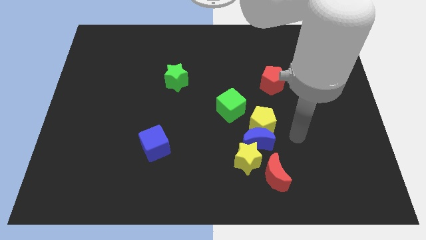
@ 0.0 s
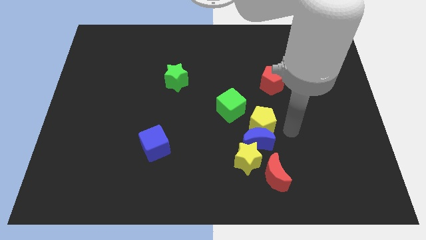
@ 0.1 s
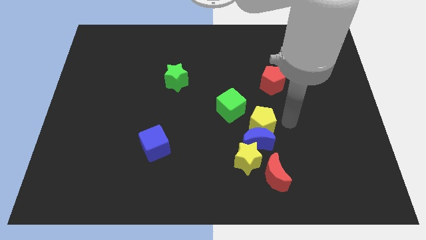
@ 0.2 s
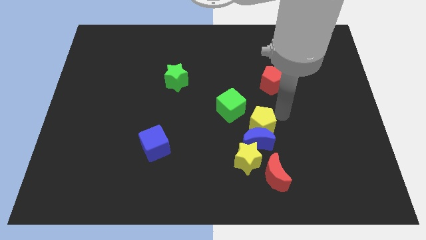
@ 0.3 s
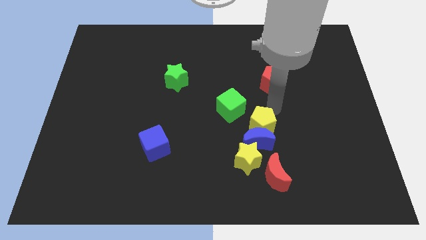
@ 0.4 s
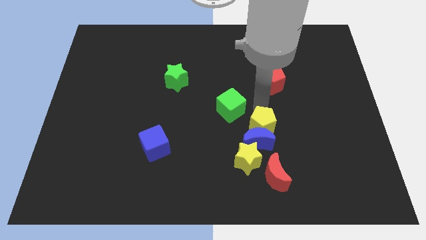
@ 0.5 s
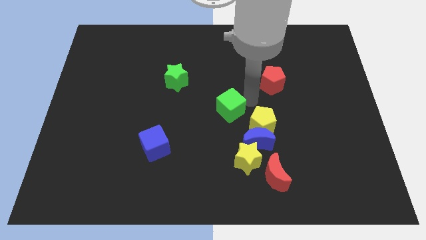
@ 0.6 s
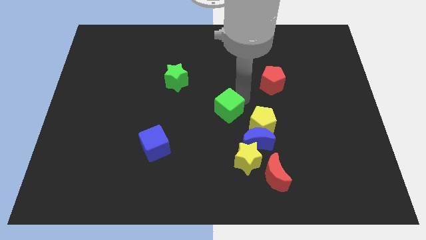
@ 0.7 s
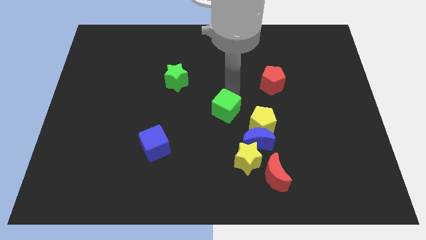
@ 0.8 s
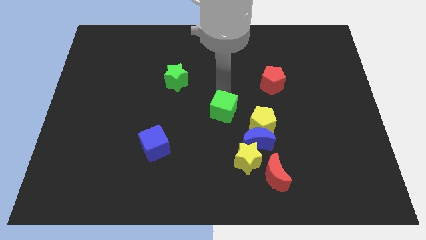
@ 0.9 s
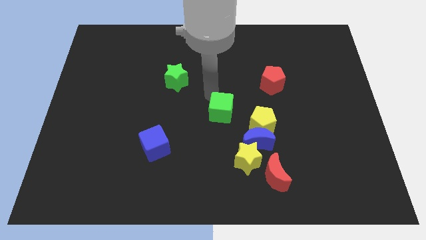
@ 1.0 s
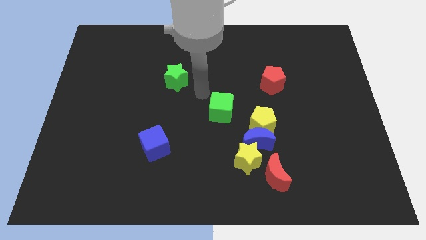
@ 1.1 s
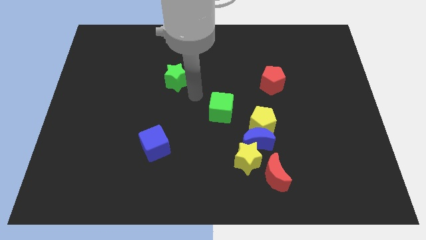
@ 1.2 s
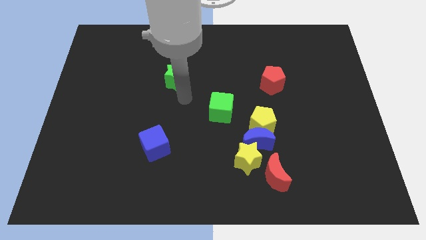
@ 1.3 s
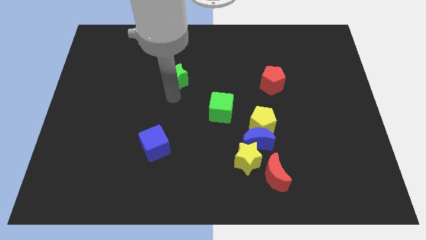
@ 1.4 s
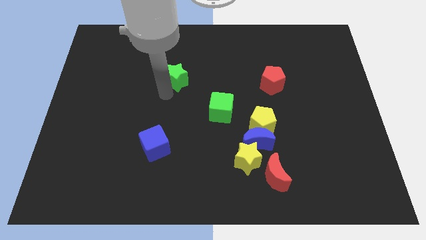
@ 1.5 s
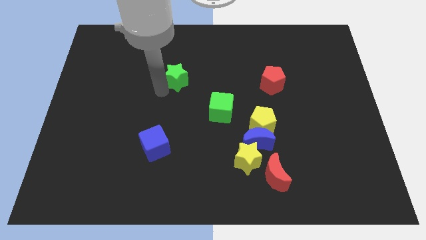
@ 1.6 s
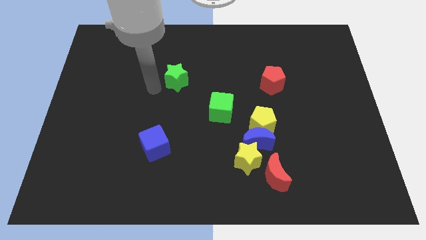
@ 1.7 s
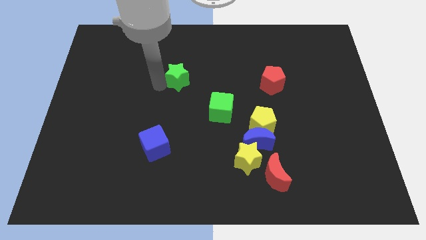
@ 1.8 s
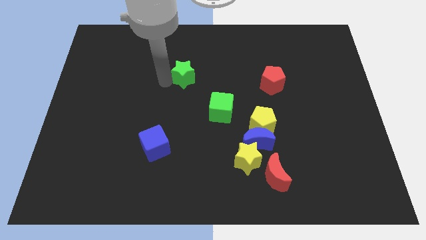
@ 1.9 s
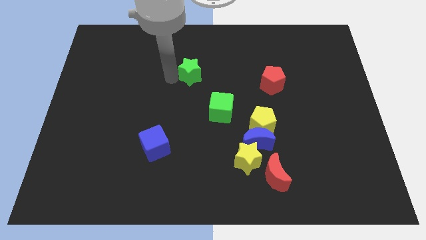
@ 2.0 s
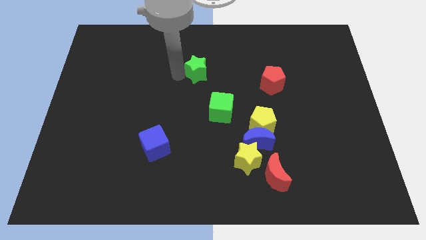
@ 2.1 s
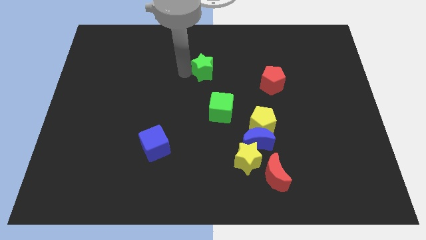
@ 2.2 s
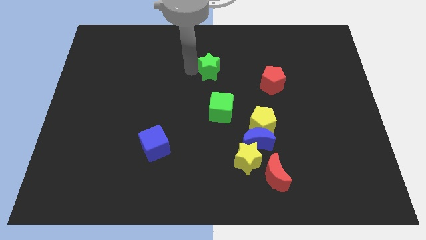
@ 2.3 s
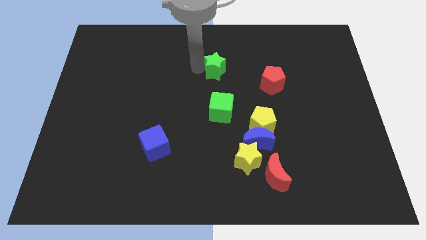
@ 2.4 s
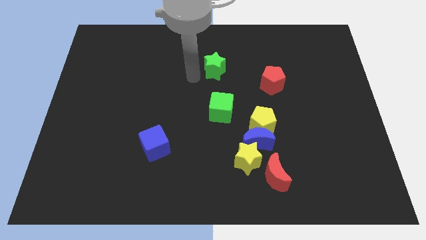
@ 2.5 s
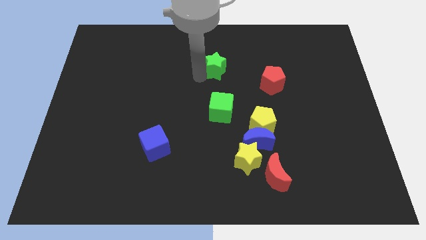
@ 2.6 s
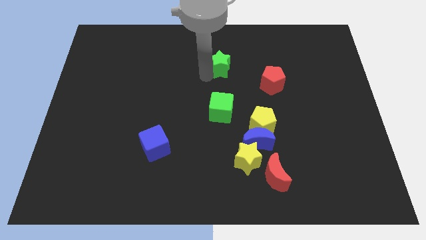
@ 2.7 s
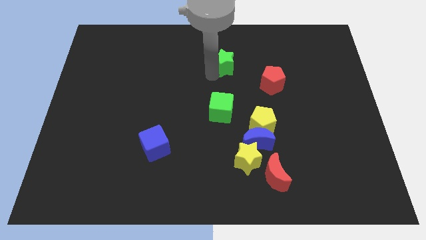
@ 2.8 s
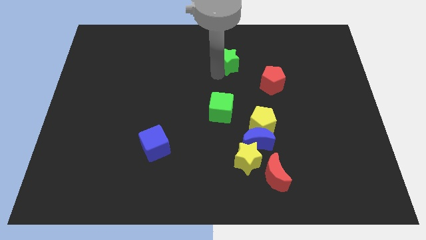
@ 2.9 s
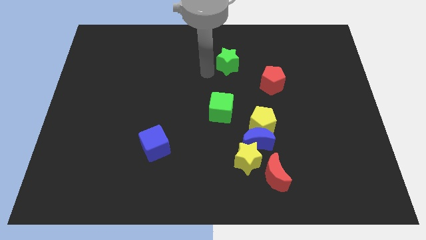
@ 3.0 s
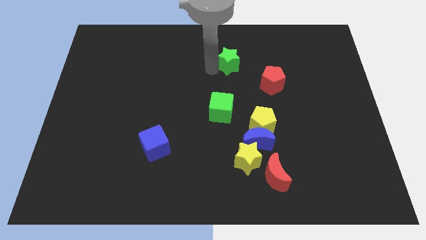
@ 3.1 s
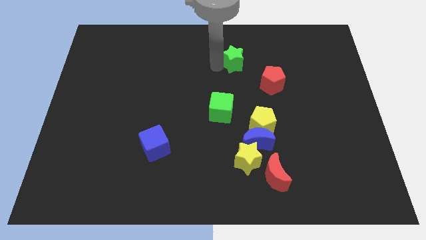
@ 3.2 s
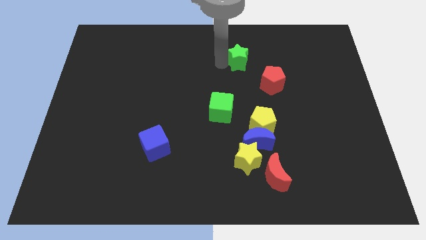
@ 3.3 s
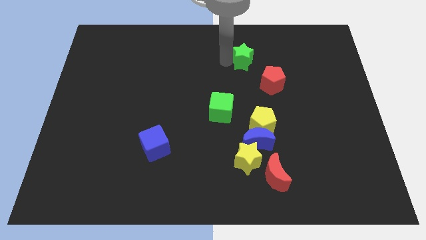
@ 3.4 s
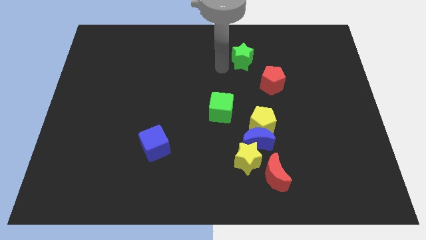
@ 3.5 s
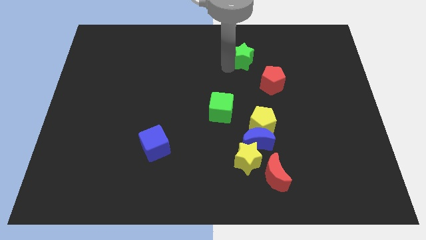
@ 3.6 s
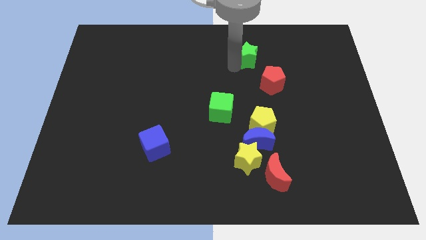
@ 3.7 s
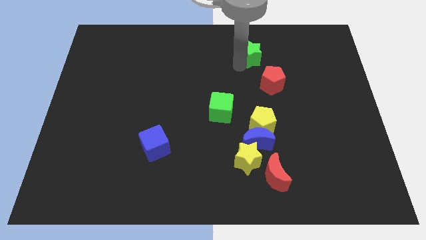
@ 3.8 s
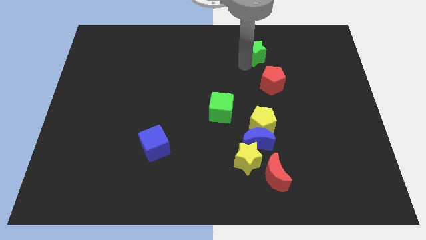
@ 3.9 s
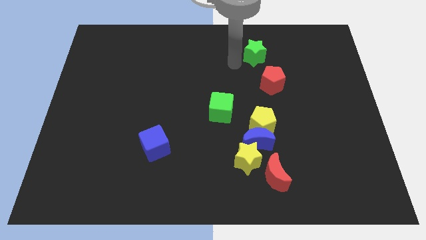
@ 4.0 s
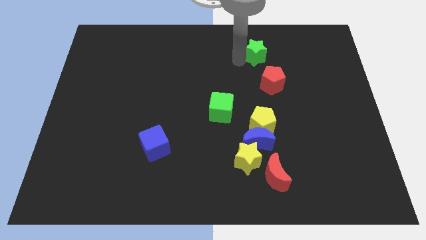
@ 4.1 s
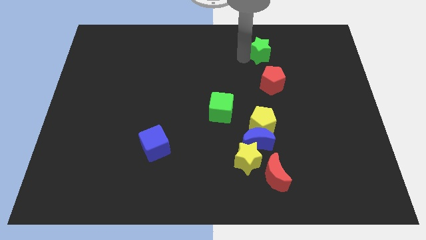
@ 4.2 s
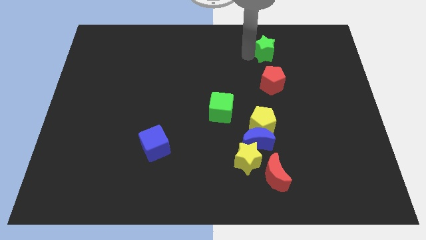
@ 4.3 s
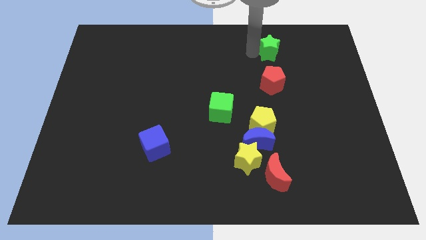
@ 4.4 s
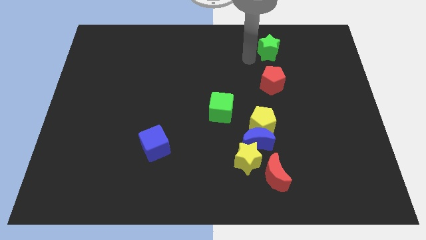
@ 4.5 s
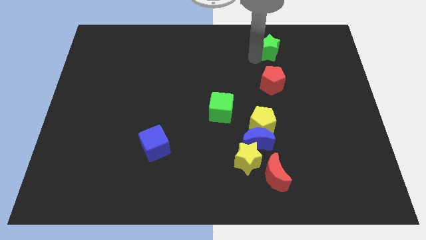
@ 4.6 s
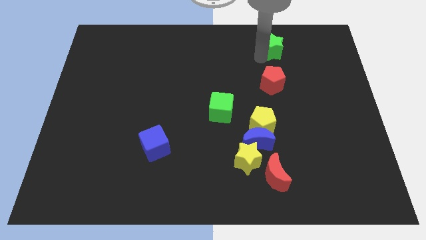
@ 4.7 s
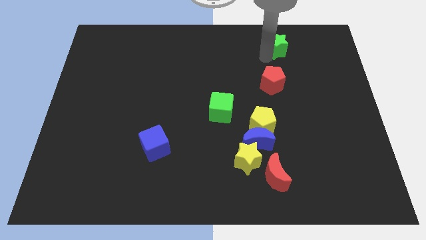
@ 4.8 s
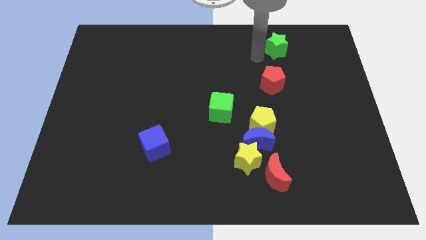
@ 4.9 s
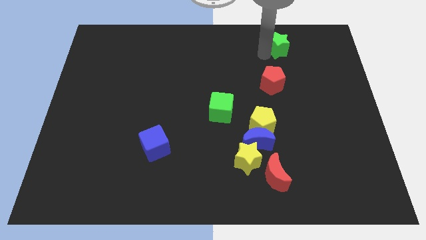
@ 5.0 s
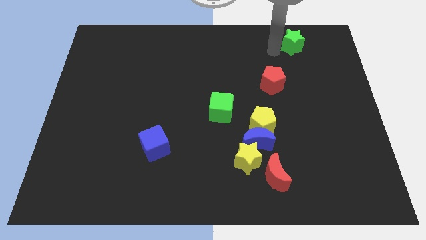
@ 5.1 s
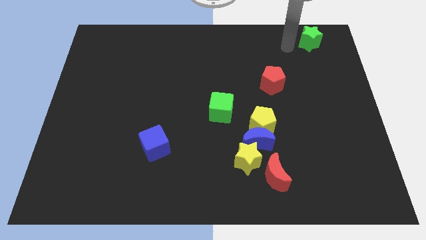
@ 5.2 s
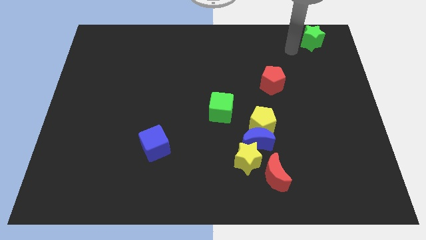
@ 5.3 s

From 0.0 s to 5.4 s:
slide the green star to the upper right corner

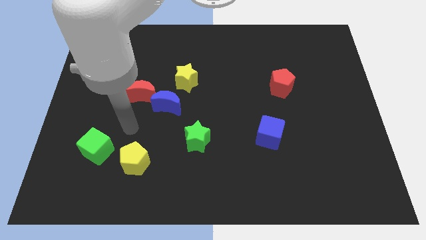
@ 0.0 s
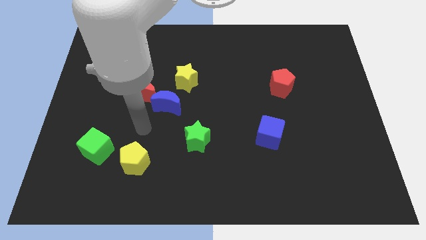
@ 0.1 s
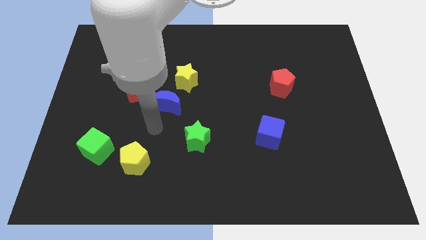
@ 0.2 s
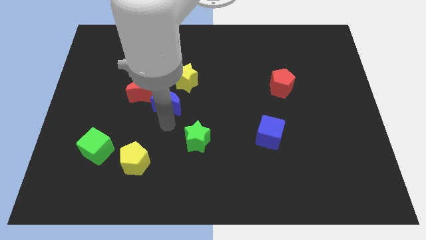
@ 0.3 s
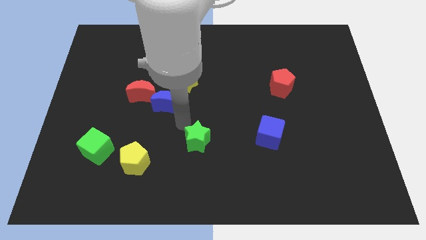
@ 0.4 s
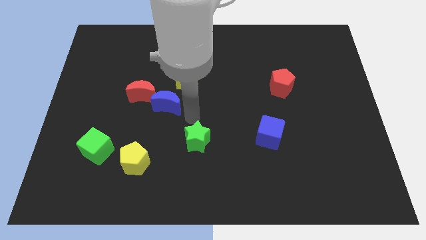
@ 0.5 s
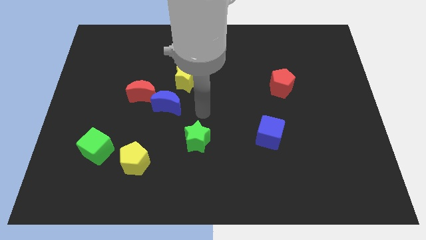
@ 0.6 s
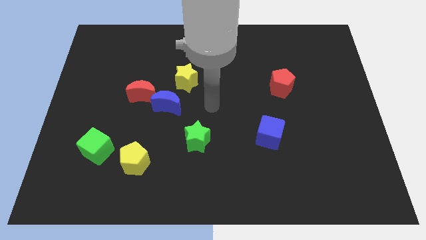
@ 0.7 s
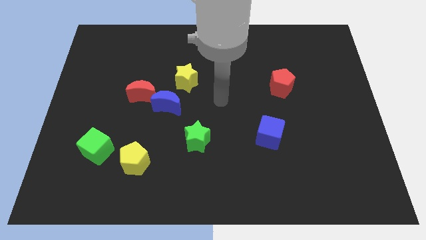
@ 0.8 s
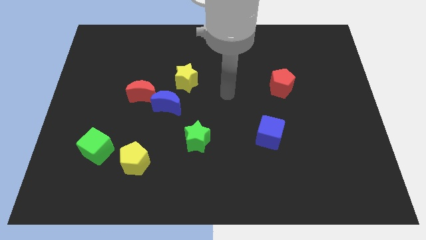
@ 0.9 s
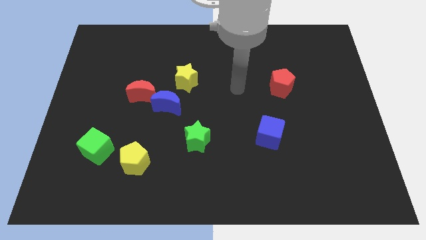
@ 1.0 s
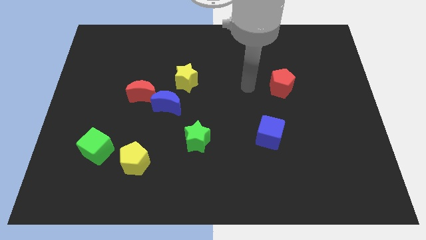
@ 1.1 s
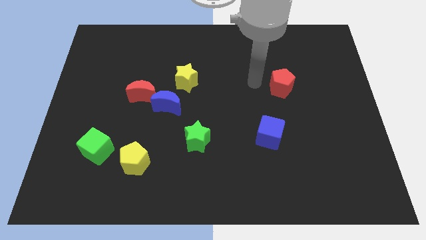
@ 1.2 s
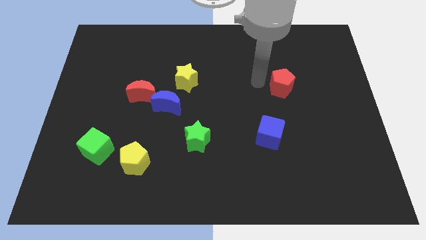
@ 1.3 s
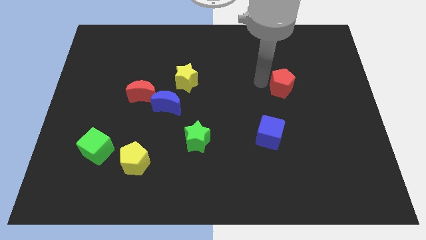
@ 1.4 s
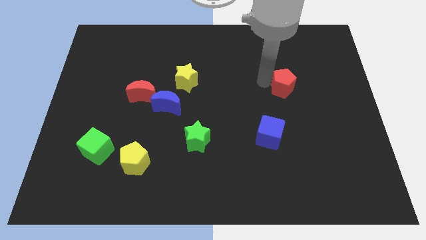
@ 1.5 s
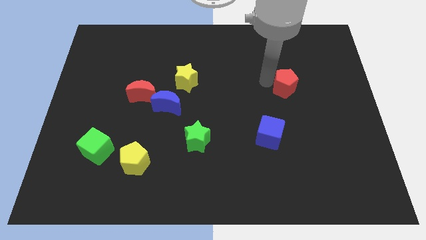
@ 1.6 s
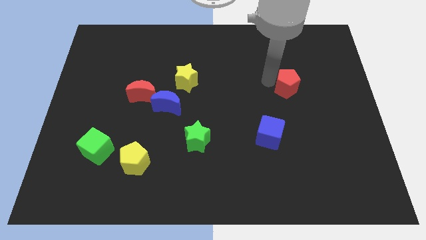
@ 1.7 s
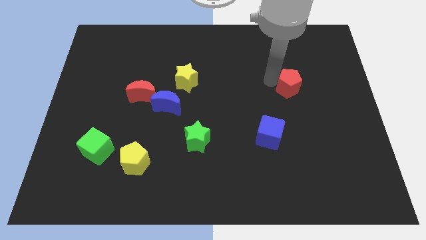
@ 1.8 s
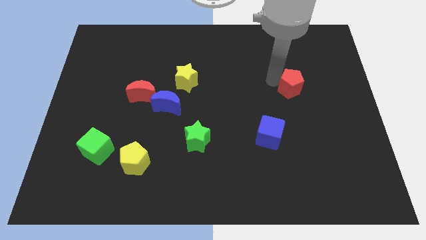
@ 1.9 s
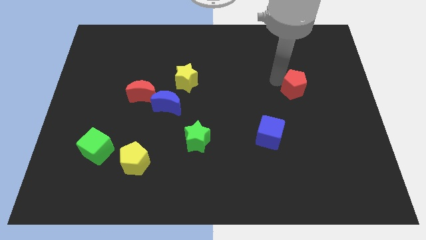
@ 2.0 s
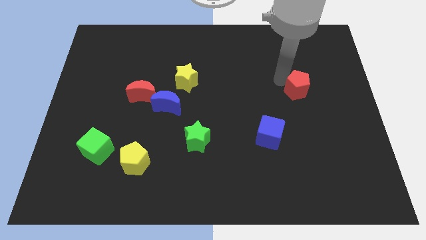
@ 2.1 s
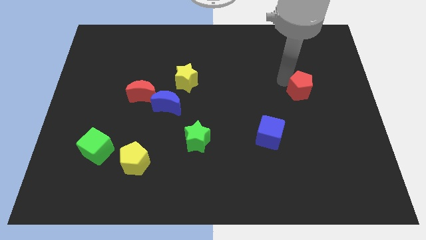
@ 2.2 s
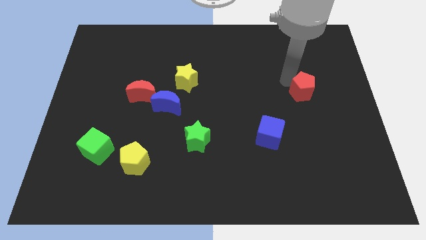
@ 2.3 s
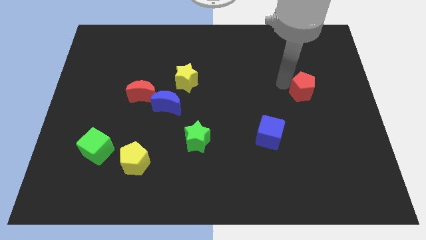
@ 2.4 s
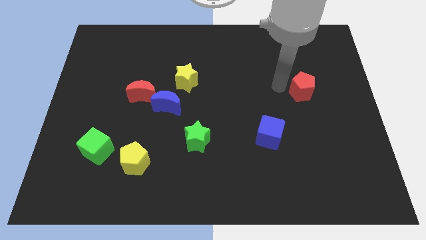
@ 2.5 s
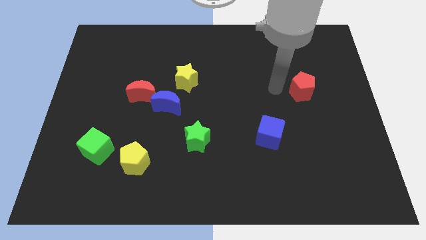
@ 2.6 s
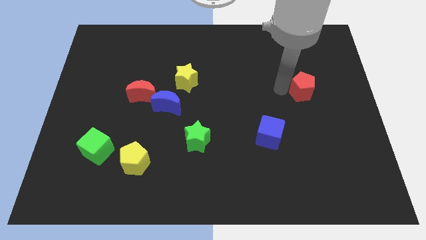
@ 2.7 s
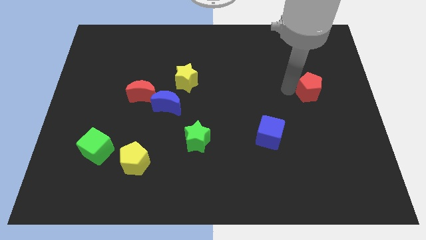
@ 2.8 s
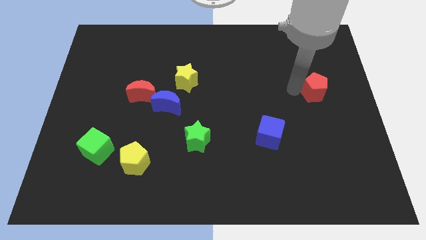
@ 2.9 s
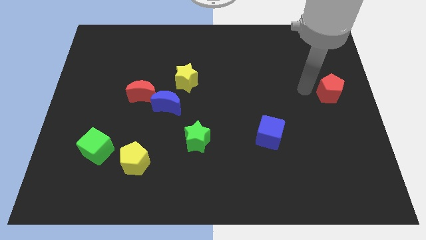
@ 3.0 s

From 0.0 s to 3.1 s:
push the red pentagon to the right side of the board
